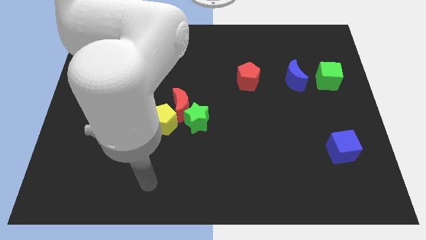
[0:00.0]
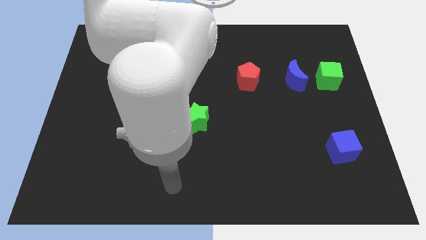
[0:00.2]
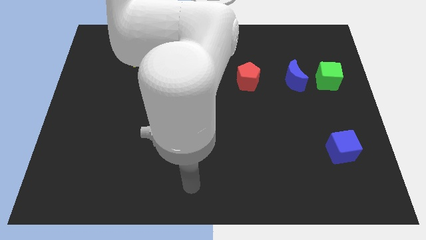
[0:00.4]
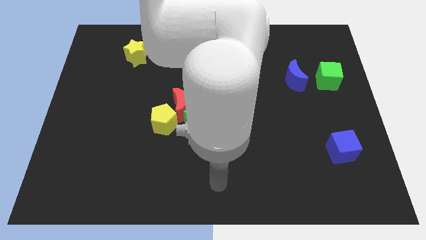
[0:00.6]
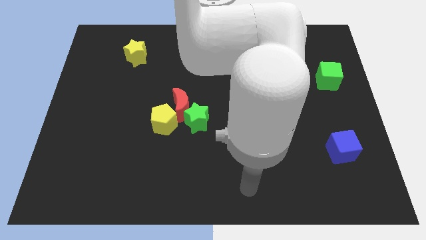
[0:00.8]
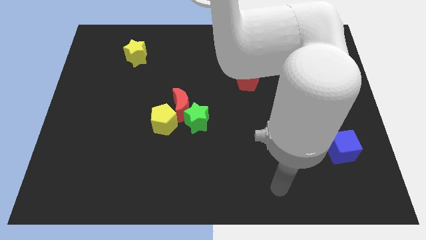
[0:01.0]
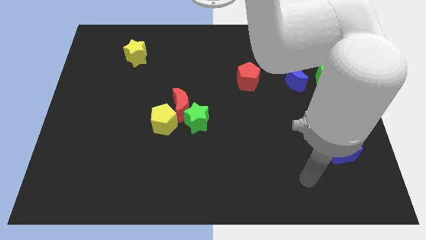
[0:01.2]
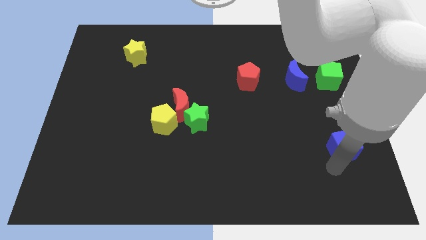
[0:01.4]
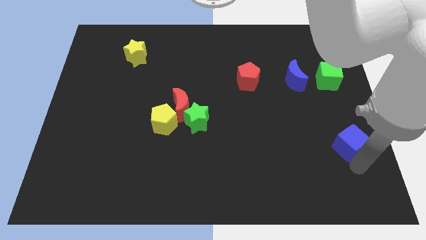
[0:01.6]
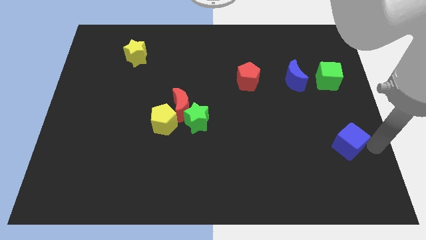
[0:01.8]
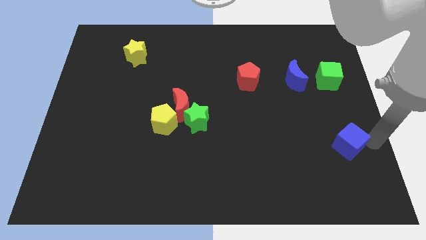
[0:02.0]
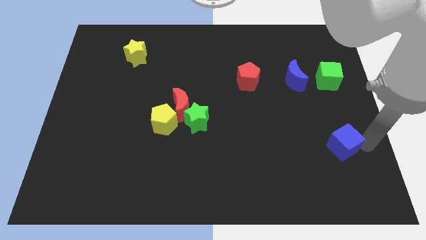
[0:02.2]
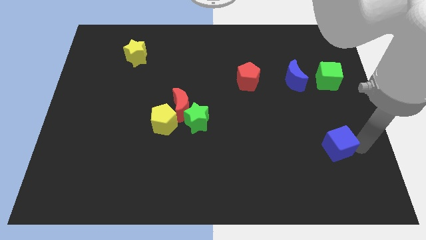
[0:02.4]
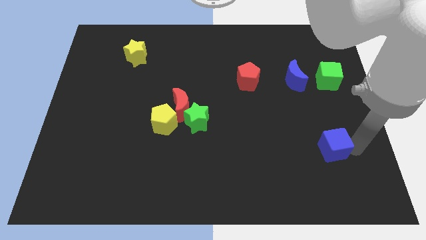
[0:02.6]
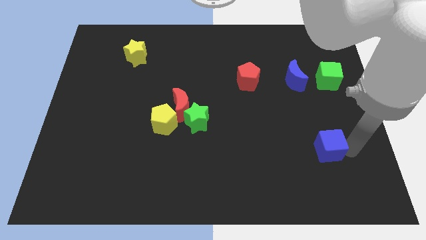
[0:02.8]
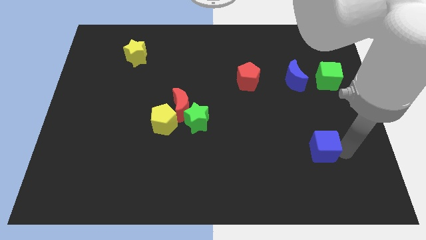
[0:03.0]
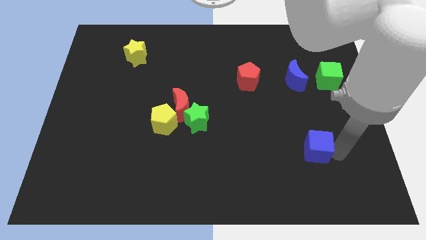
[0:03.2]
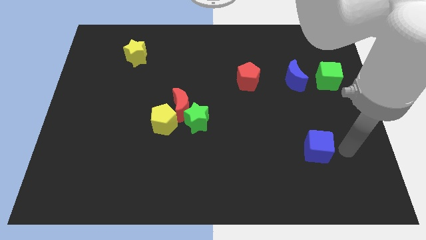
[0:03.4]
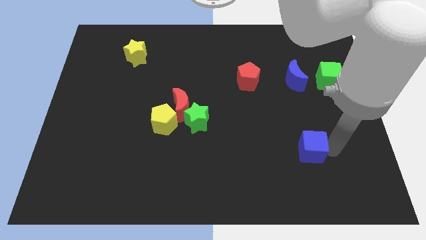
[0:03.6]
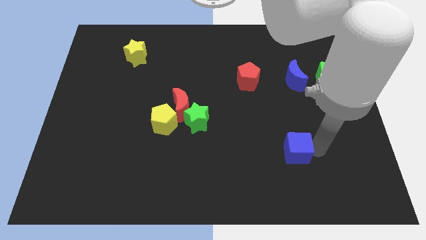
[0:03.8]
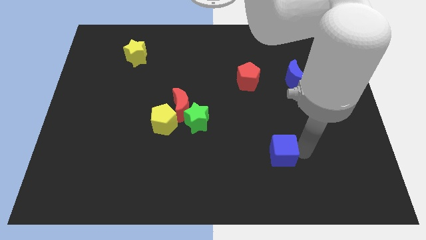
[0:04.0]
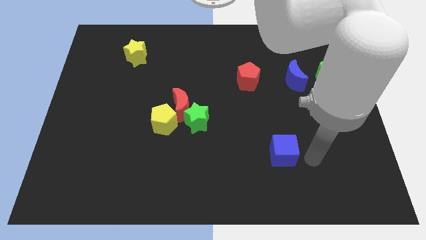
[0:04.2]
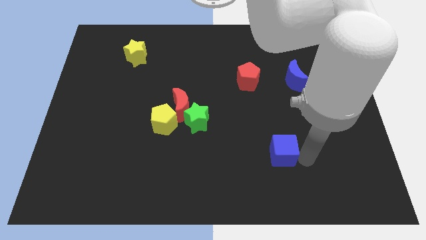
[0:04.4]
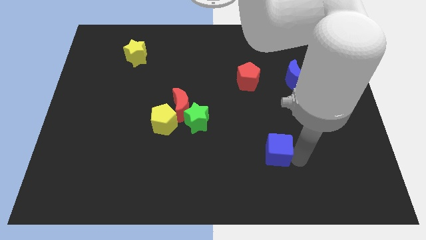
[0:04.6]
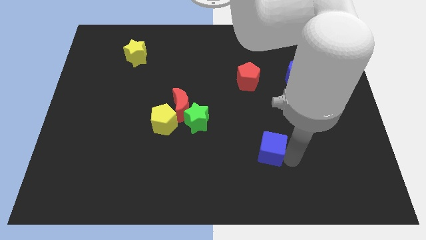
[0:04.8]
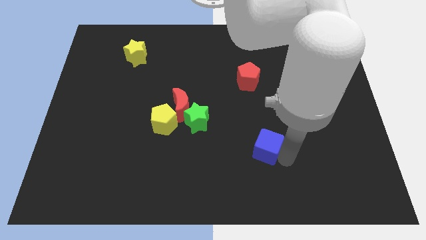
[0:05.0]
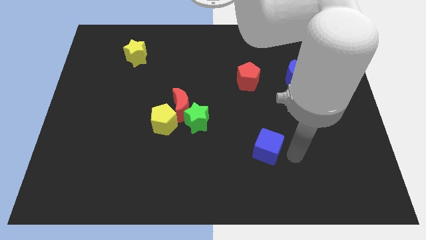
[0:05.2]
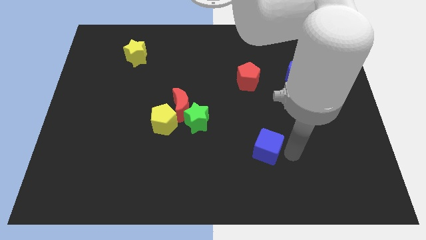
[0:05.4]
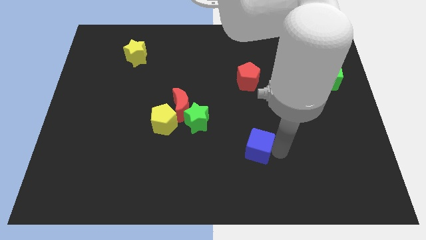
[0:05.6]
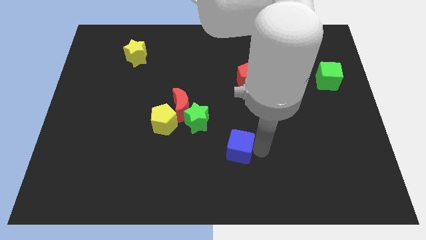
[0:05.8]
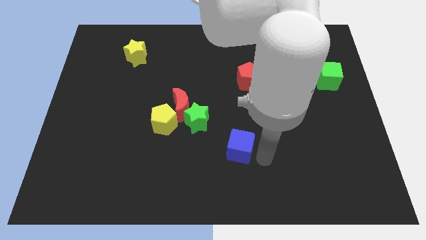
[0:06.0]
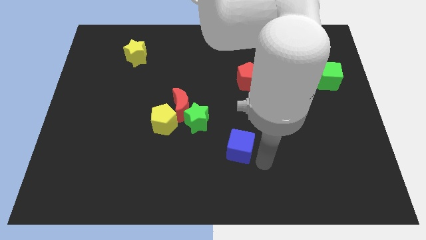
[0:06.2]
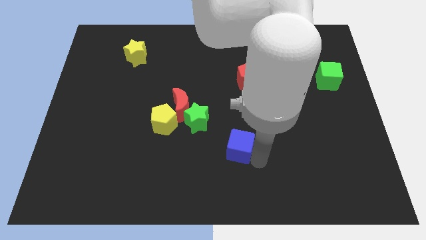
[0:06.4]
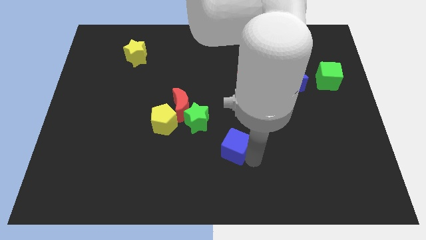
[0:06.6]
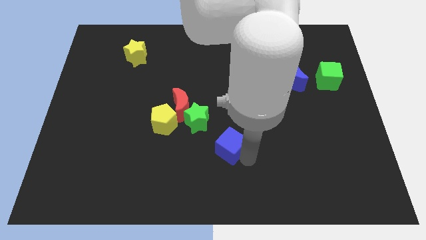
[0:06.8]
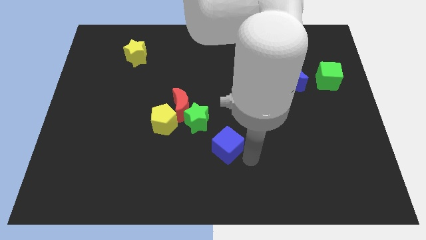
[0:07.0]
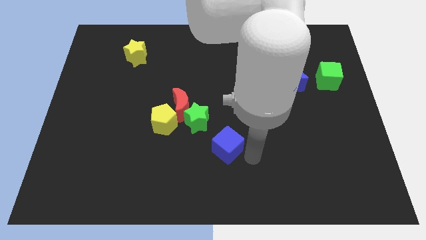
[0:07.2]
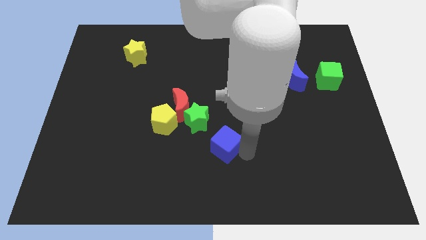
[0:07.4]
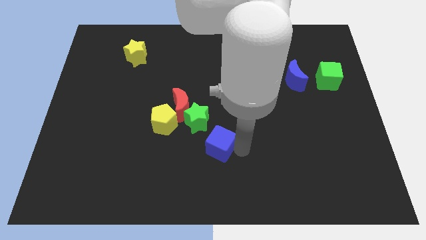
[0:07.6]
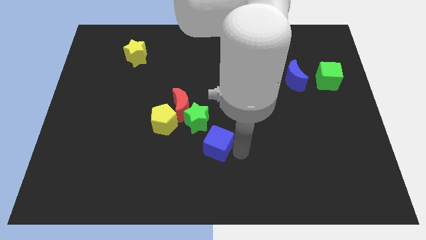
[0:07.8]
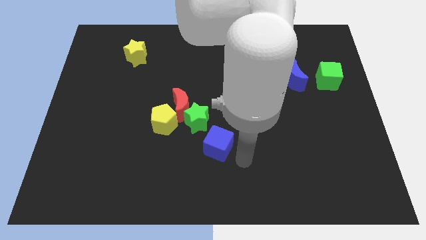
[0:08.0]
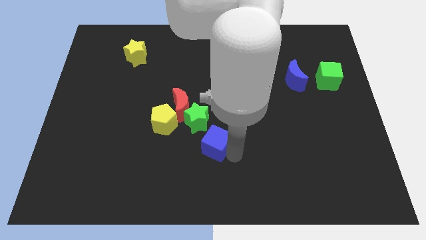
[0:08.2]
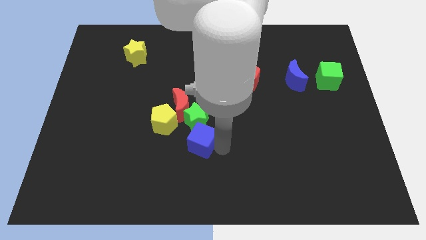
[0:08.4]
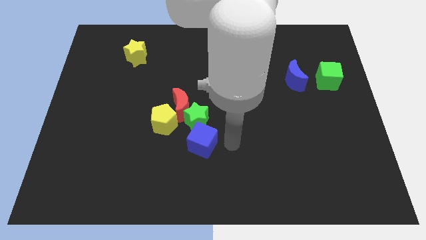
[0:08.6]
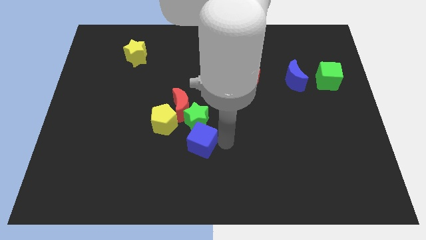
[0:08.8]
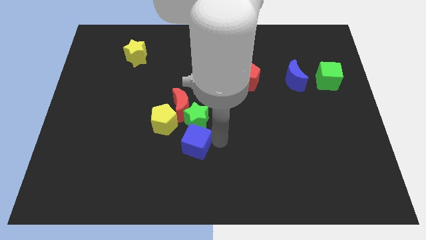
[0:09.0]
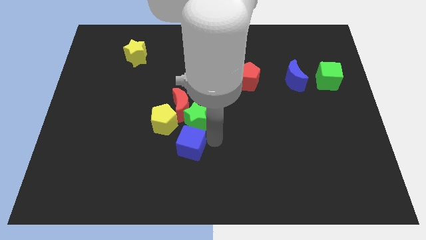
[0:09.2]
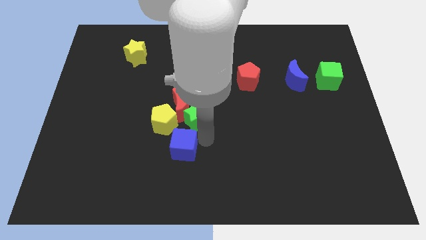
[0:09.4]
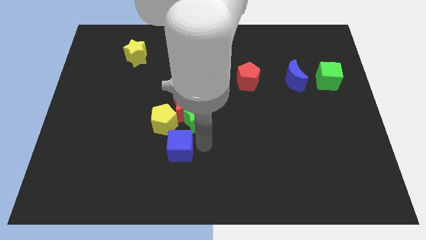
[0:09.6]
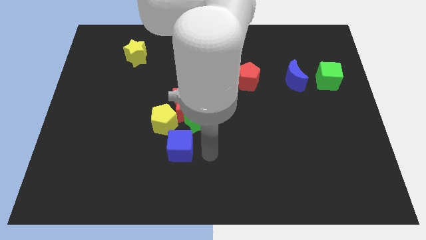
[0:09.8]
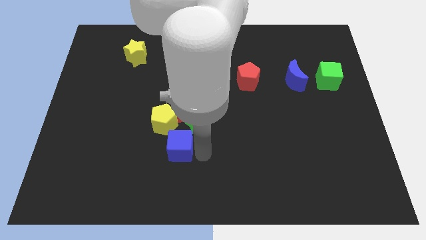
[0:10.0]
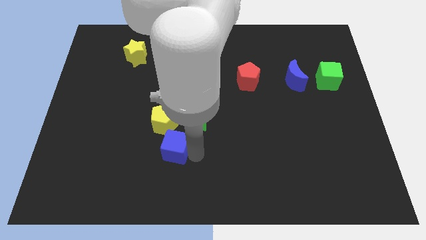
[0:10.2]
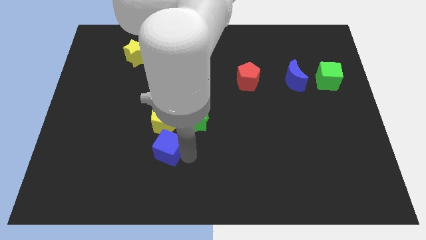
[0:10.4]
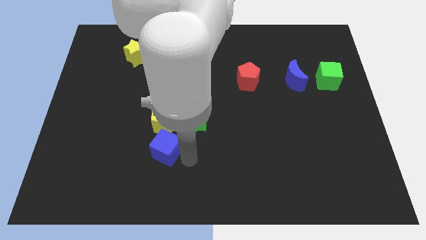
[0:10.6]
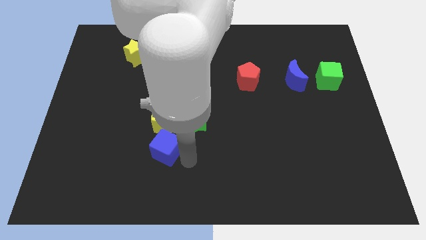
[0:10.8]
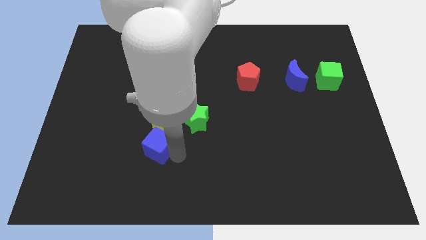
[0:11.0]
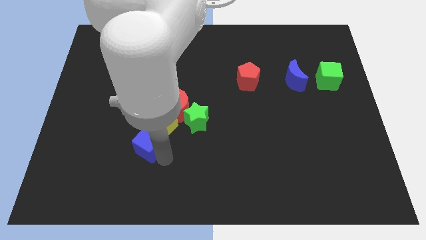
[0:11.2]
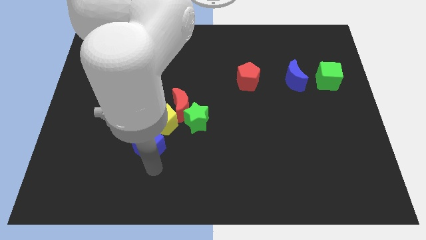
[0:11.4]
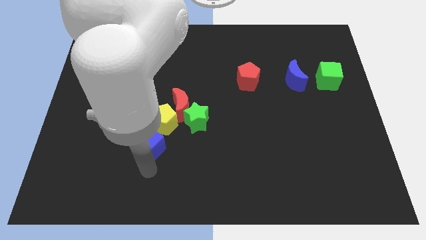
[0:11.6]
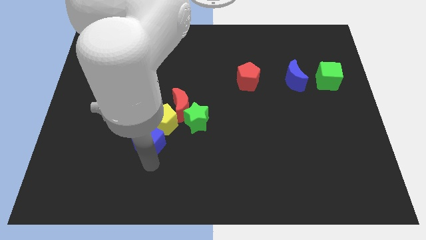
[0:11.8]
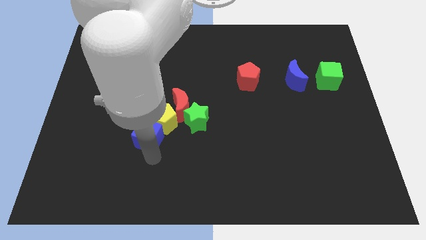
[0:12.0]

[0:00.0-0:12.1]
move the blue cube to the left of the green star
